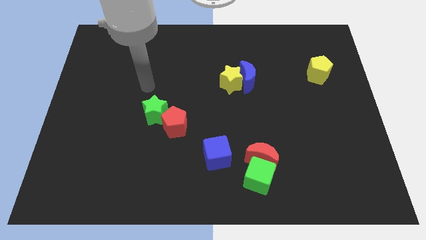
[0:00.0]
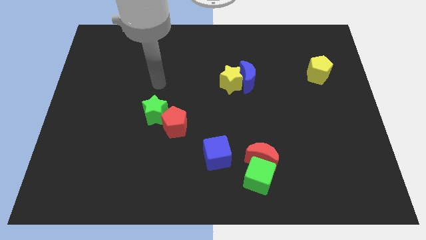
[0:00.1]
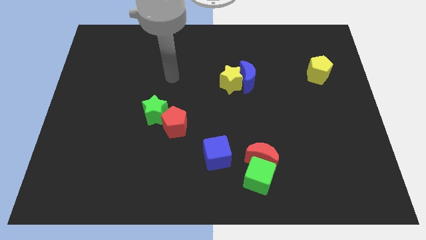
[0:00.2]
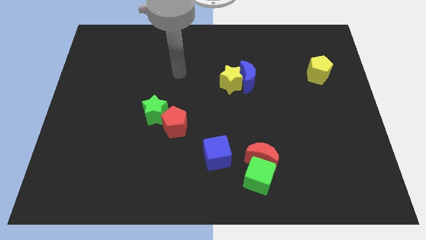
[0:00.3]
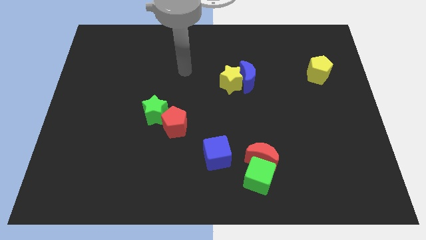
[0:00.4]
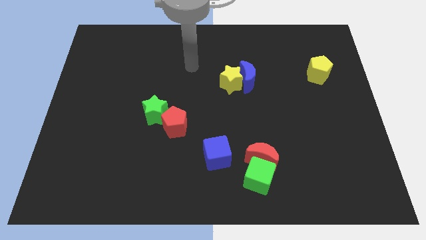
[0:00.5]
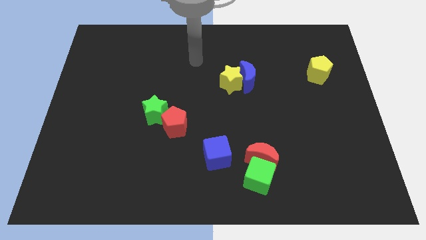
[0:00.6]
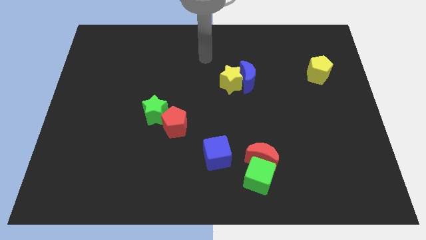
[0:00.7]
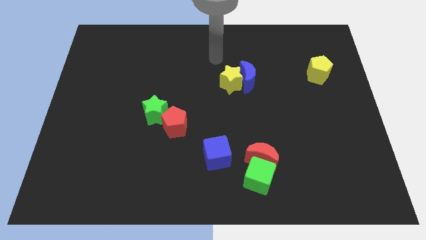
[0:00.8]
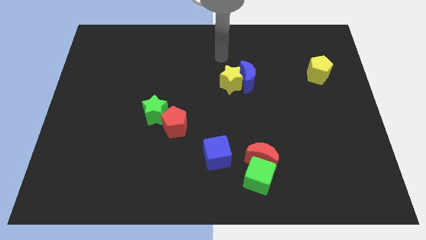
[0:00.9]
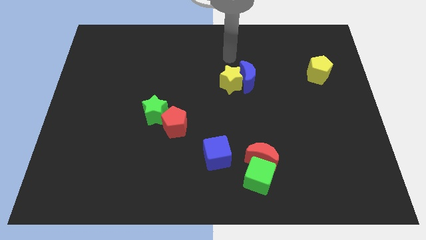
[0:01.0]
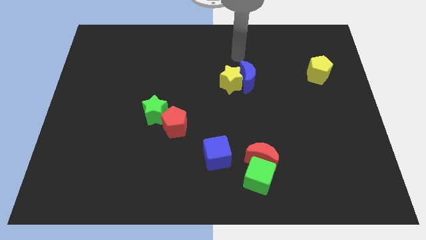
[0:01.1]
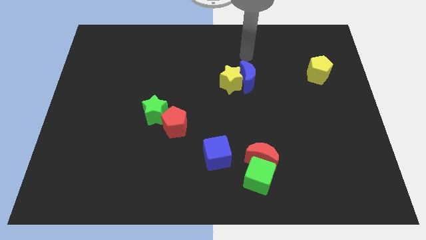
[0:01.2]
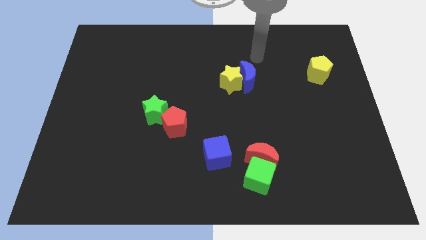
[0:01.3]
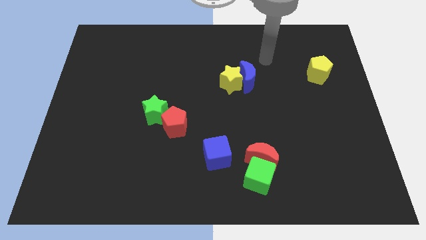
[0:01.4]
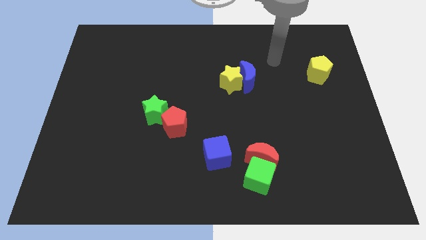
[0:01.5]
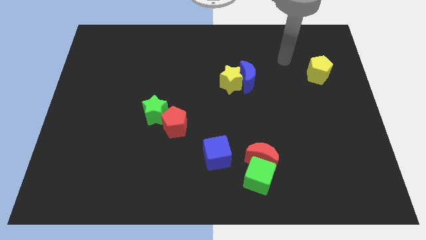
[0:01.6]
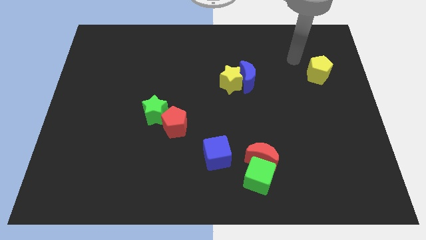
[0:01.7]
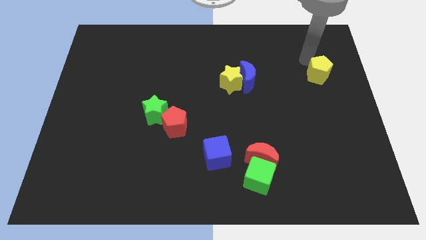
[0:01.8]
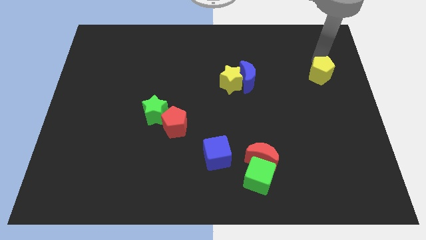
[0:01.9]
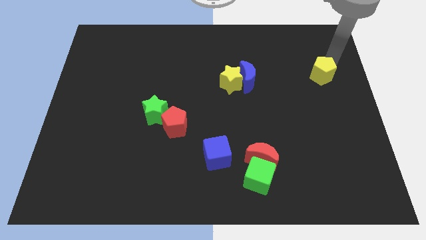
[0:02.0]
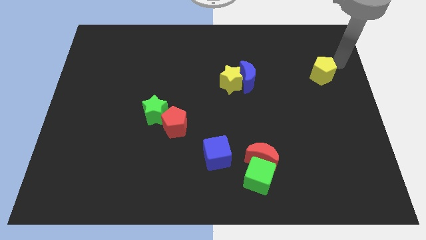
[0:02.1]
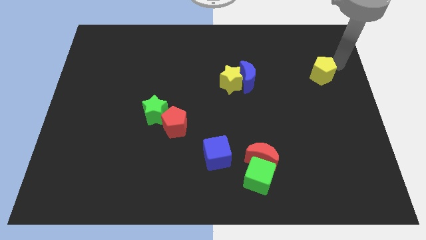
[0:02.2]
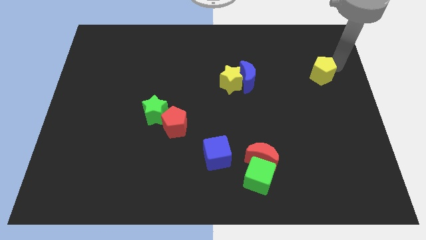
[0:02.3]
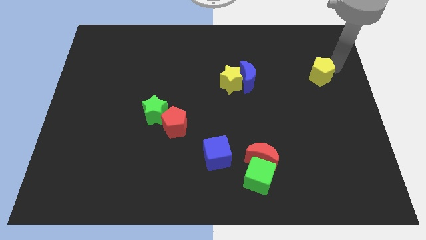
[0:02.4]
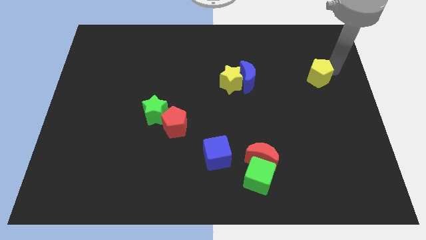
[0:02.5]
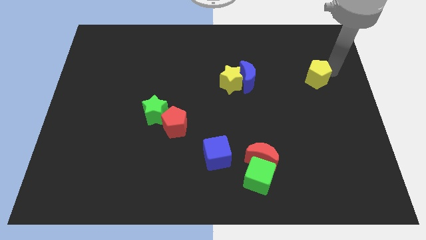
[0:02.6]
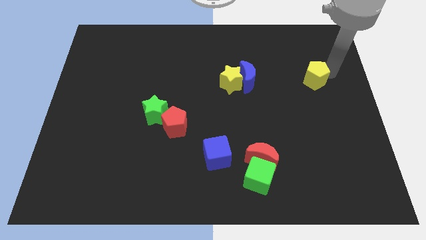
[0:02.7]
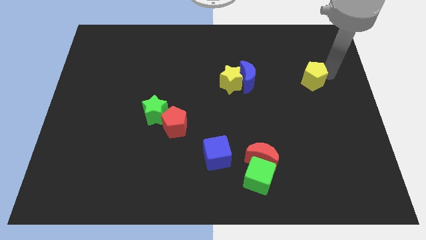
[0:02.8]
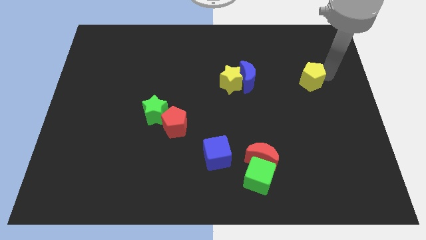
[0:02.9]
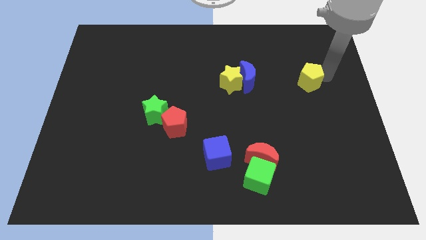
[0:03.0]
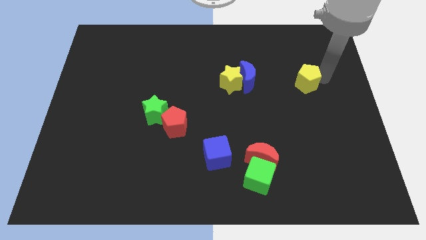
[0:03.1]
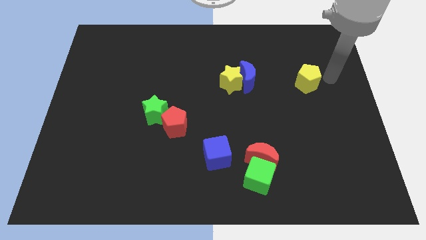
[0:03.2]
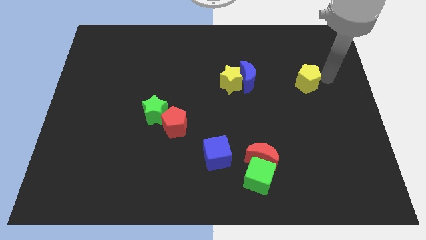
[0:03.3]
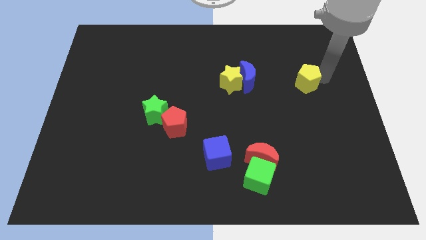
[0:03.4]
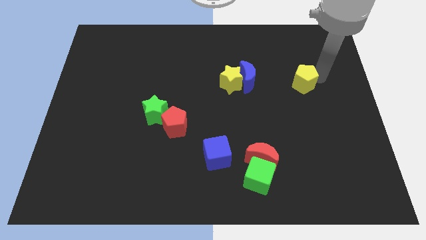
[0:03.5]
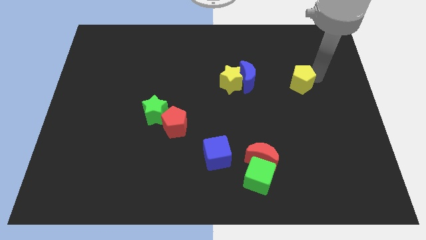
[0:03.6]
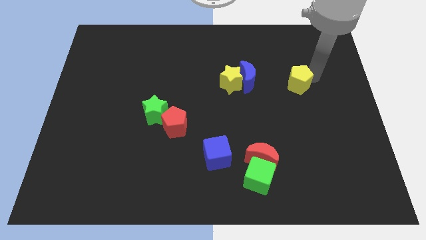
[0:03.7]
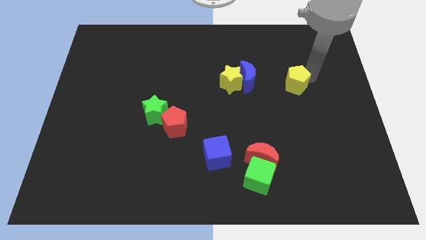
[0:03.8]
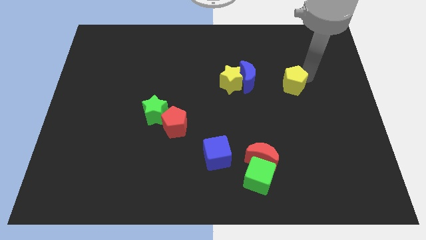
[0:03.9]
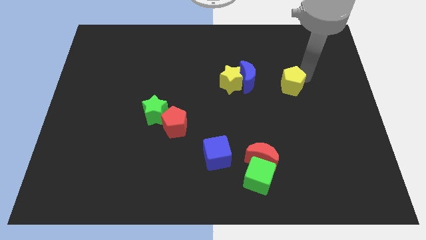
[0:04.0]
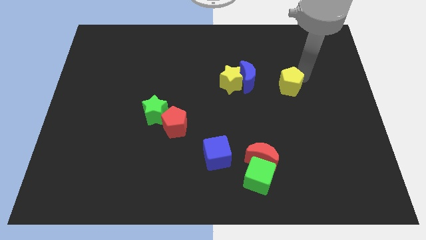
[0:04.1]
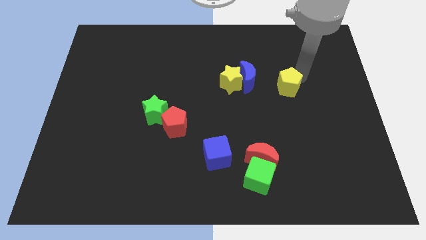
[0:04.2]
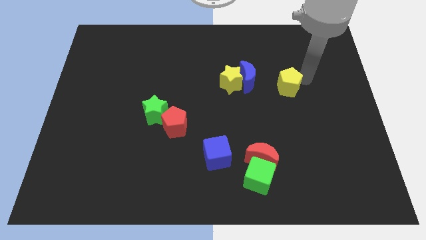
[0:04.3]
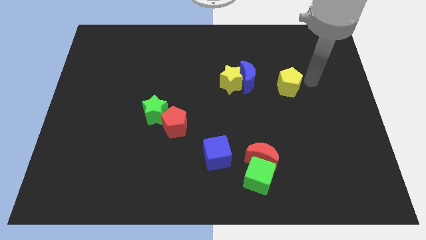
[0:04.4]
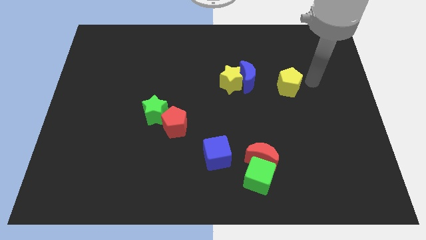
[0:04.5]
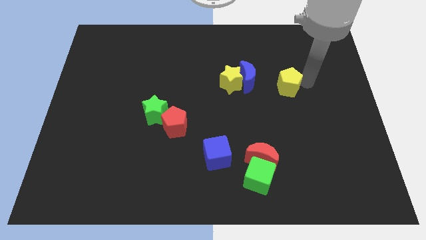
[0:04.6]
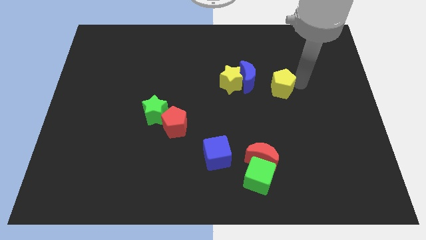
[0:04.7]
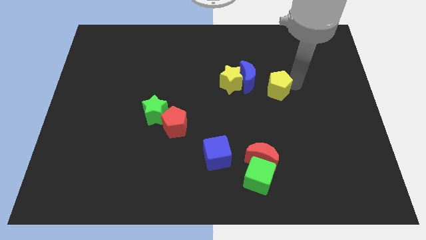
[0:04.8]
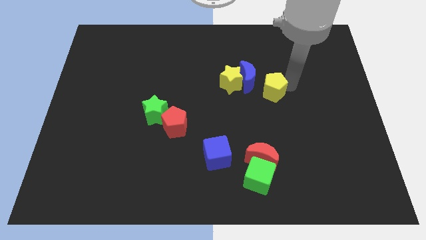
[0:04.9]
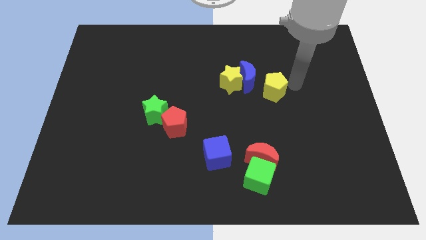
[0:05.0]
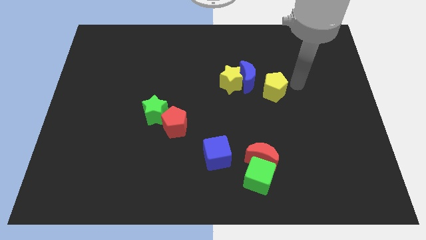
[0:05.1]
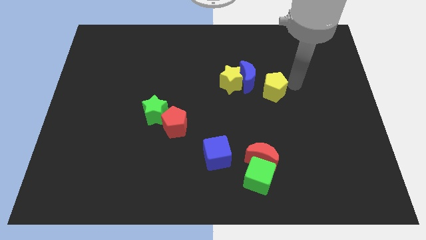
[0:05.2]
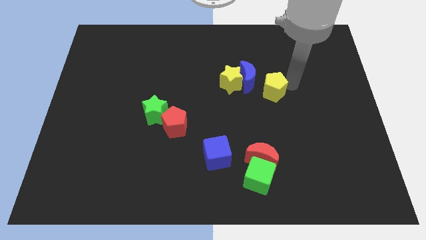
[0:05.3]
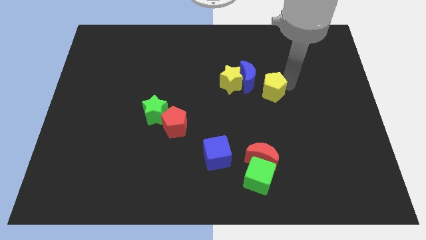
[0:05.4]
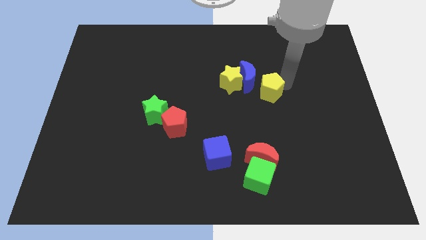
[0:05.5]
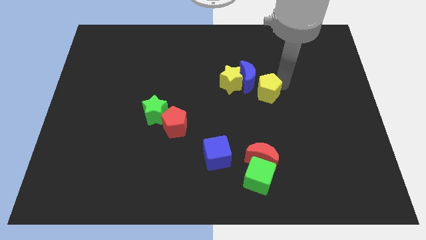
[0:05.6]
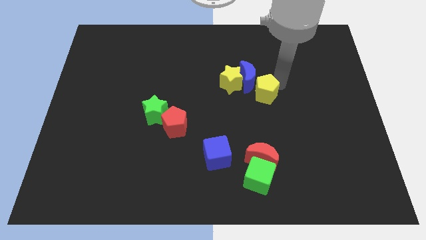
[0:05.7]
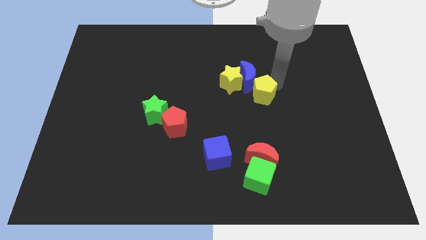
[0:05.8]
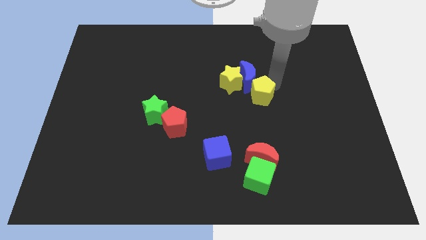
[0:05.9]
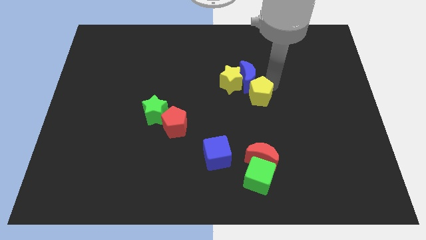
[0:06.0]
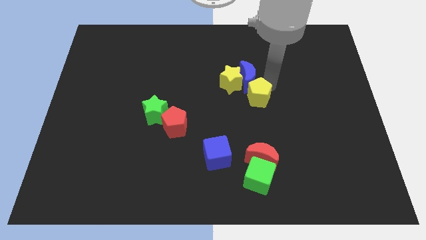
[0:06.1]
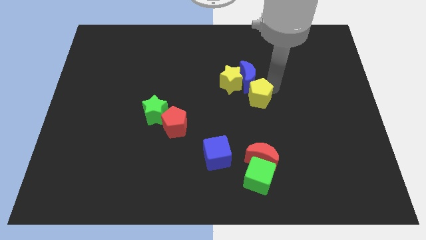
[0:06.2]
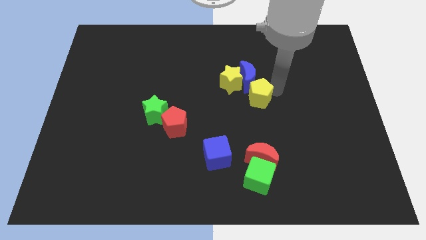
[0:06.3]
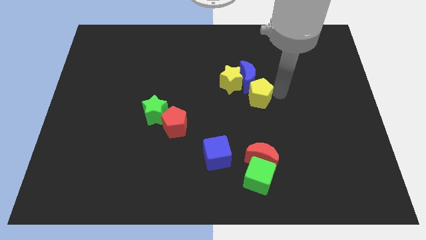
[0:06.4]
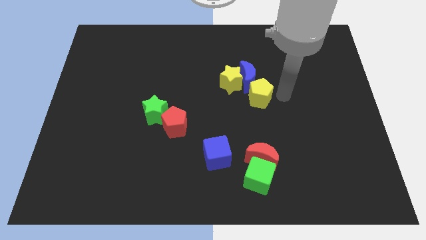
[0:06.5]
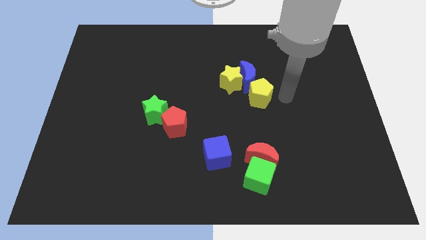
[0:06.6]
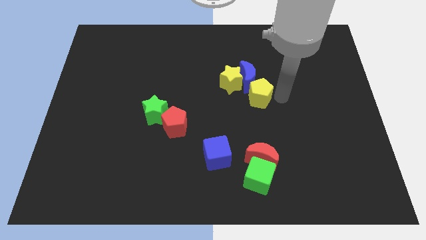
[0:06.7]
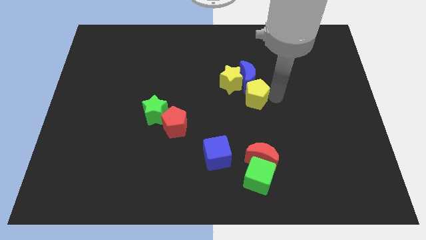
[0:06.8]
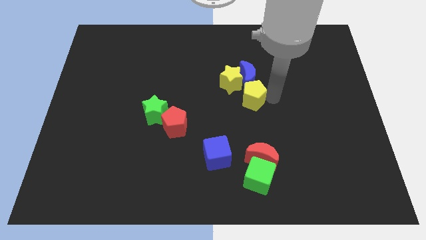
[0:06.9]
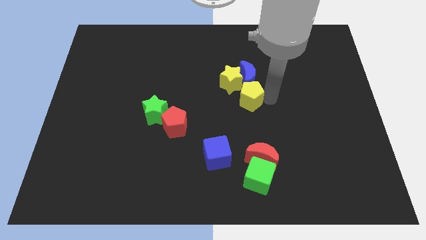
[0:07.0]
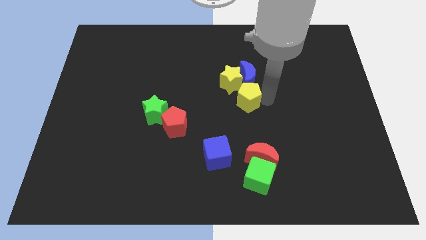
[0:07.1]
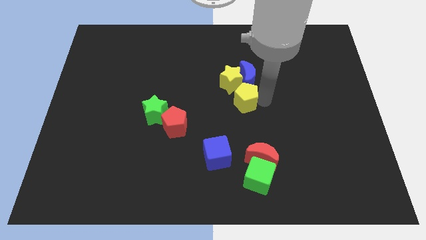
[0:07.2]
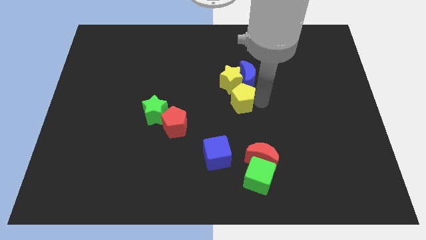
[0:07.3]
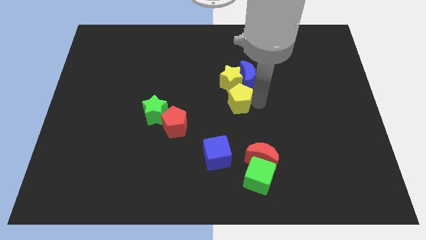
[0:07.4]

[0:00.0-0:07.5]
push the yellow pentagon to the yellow star
